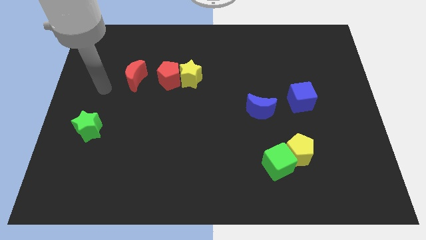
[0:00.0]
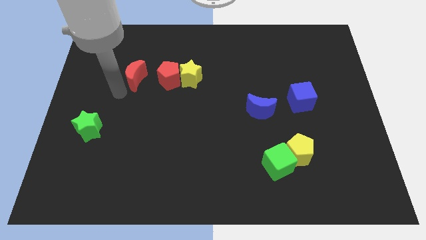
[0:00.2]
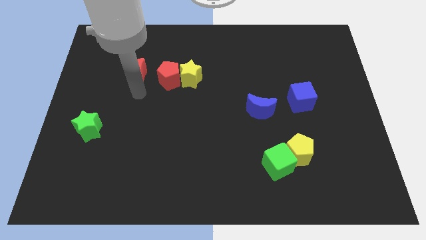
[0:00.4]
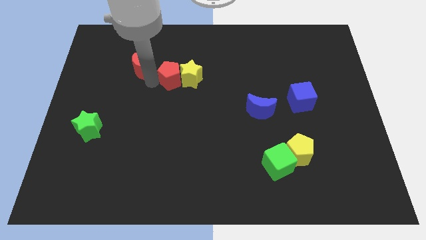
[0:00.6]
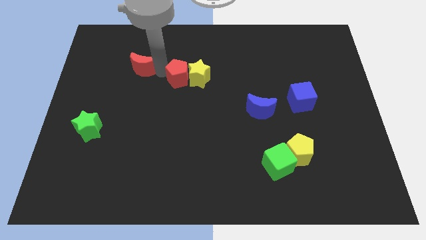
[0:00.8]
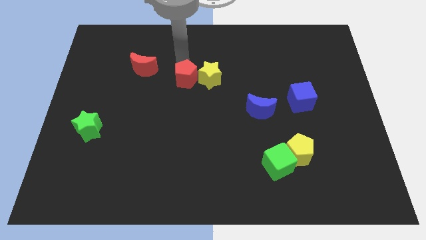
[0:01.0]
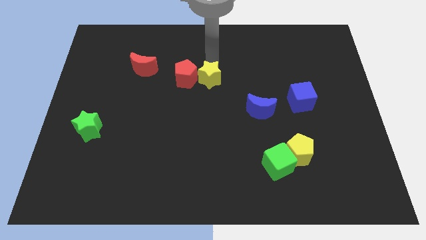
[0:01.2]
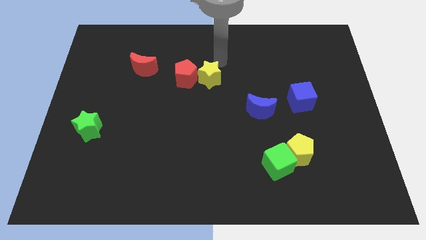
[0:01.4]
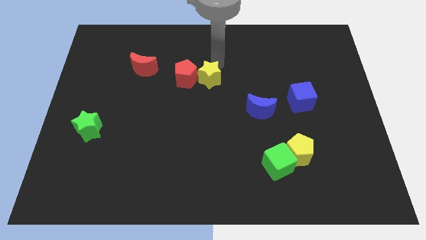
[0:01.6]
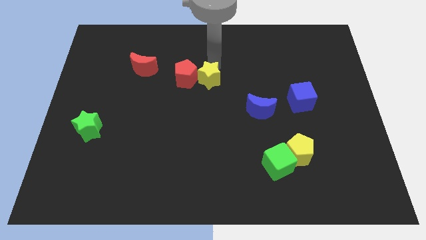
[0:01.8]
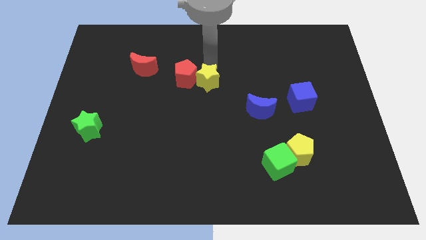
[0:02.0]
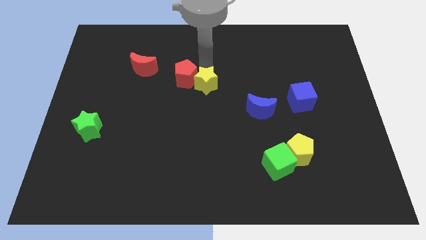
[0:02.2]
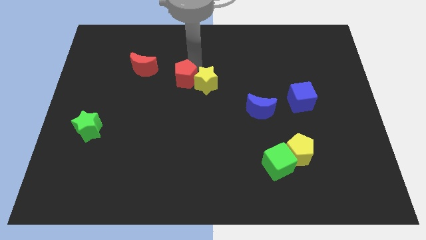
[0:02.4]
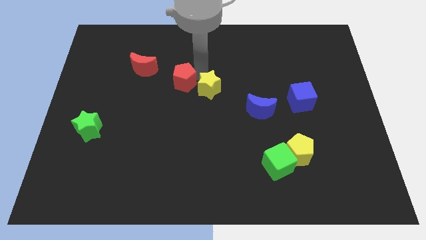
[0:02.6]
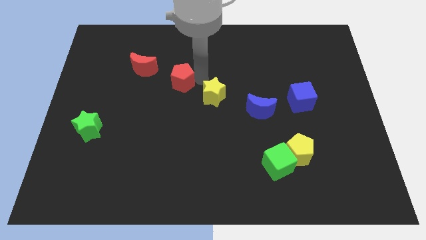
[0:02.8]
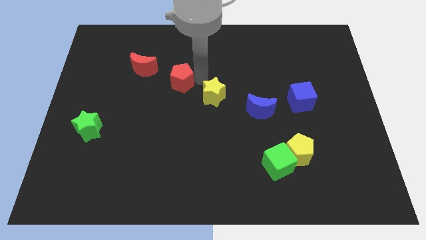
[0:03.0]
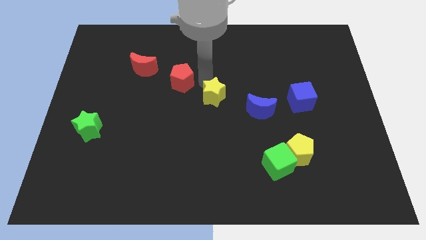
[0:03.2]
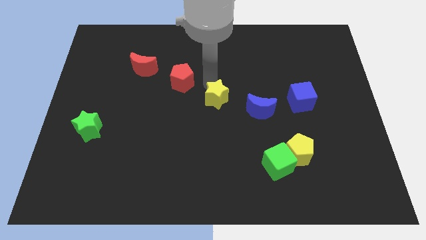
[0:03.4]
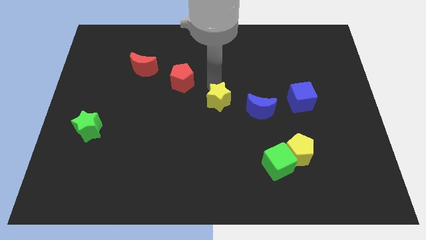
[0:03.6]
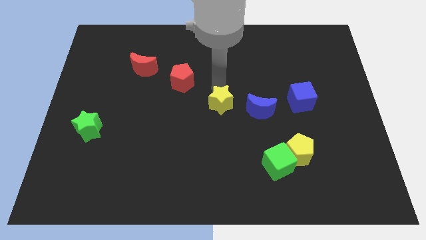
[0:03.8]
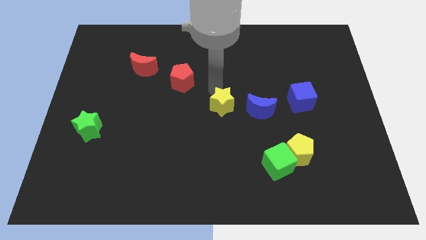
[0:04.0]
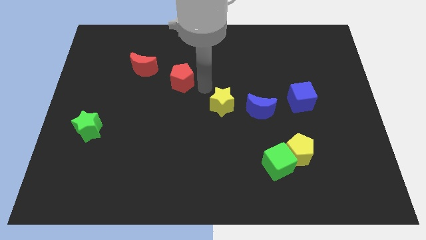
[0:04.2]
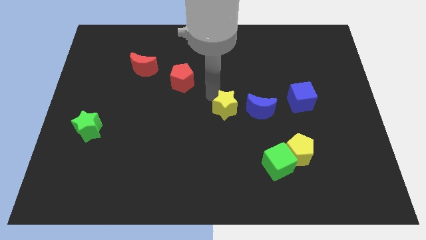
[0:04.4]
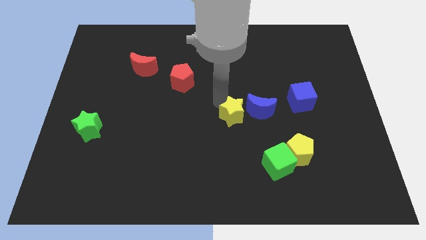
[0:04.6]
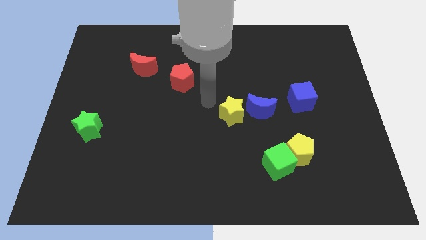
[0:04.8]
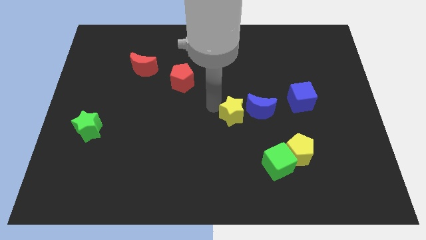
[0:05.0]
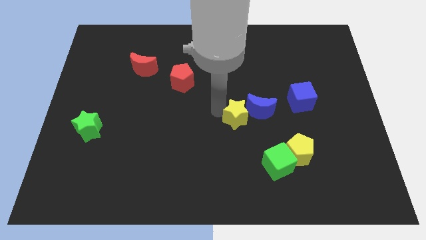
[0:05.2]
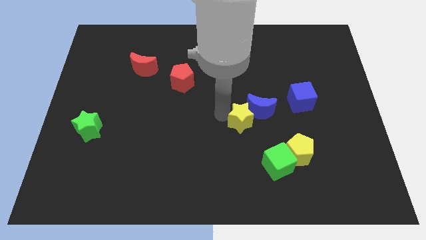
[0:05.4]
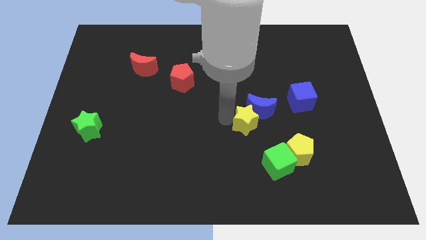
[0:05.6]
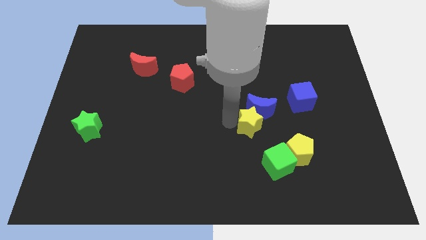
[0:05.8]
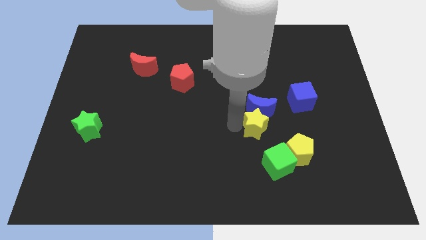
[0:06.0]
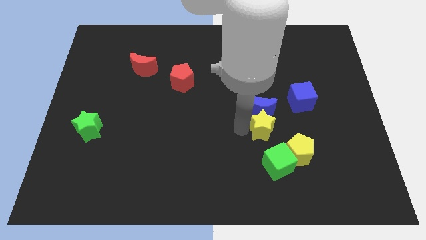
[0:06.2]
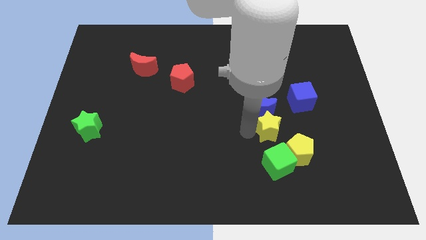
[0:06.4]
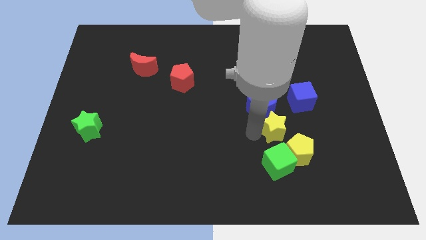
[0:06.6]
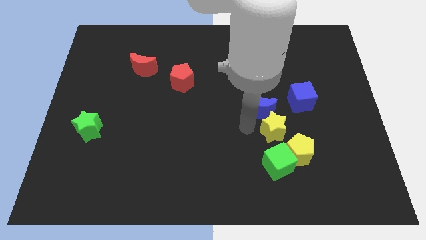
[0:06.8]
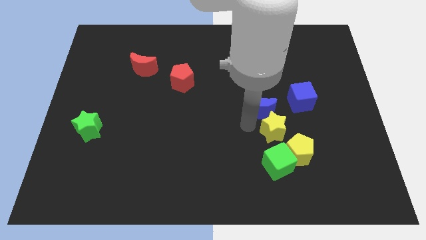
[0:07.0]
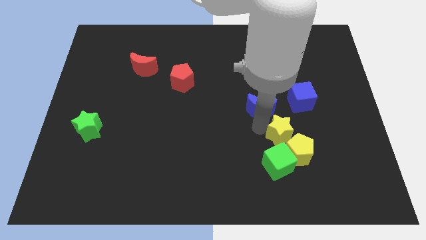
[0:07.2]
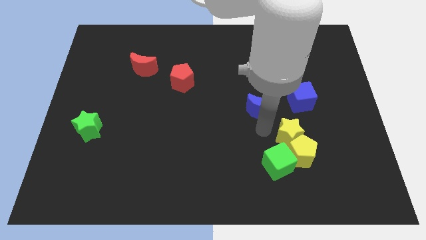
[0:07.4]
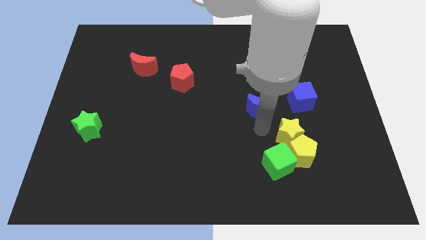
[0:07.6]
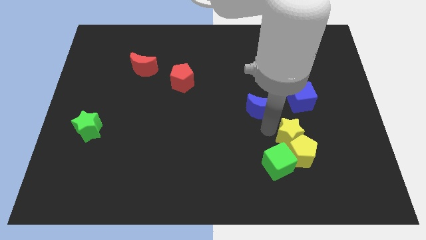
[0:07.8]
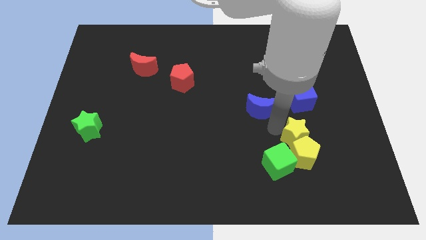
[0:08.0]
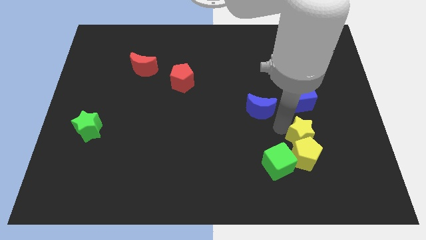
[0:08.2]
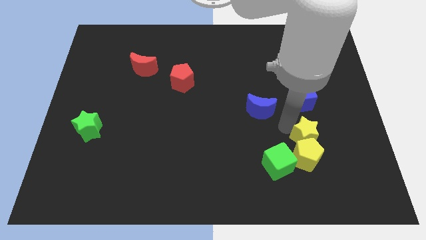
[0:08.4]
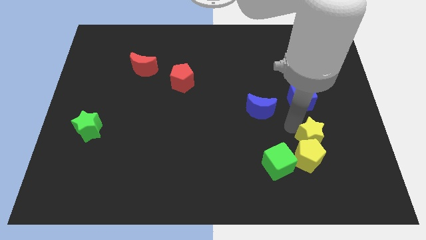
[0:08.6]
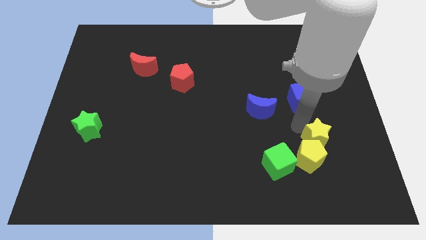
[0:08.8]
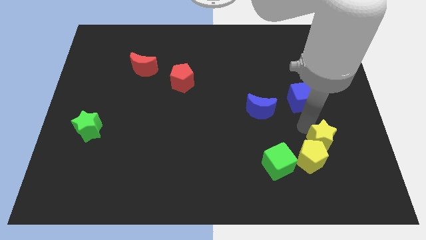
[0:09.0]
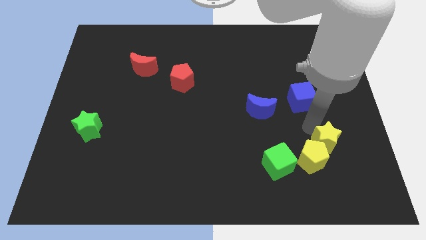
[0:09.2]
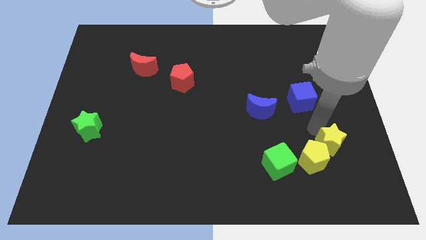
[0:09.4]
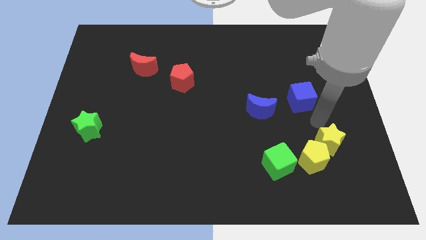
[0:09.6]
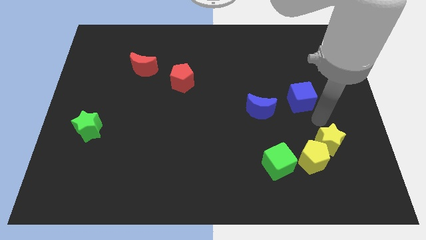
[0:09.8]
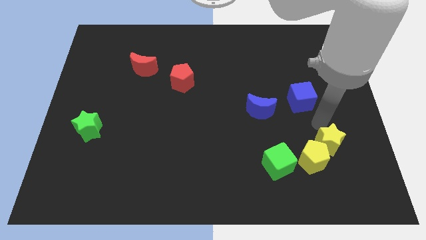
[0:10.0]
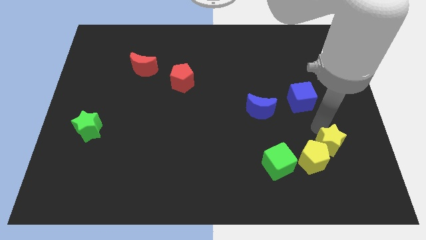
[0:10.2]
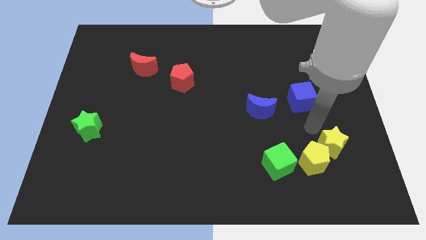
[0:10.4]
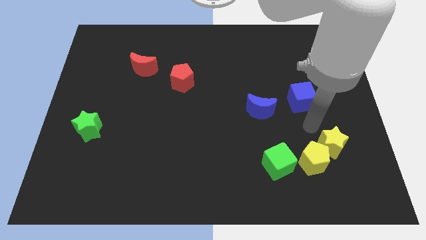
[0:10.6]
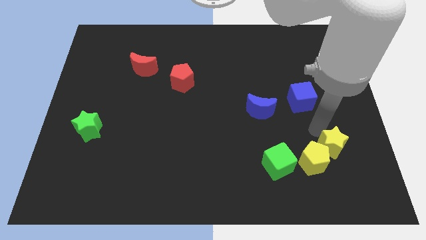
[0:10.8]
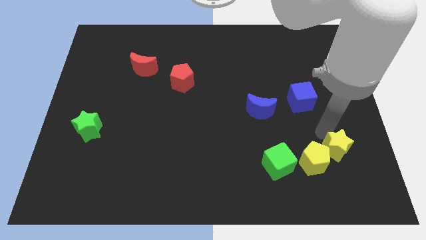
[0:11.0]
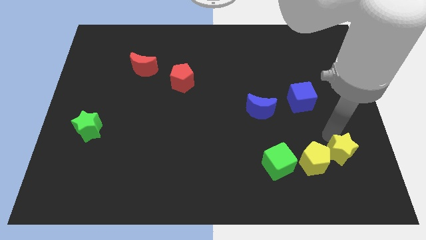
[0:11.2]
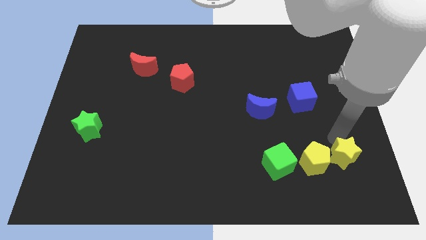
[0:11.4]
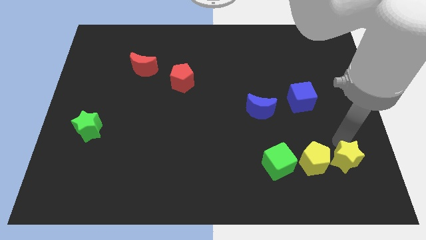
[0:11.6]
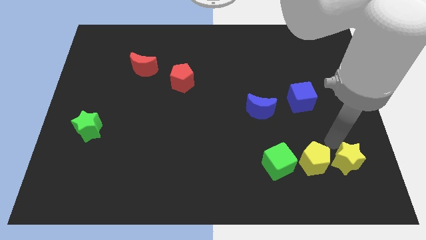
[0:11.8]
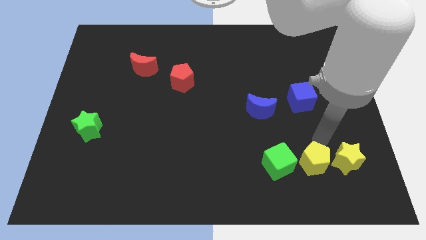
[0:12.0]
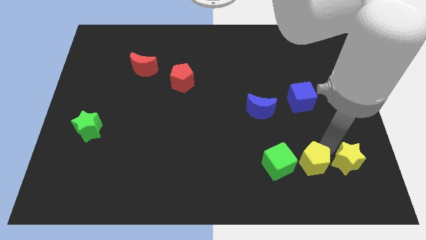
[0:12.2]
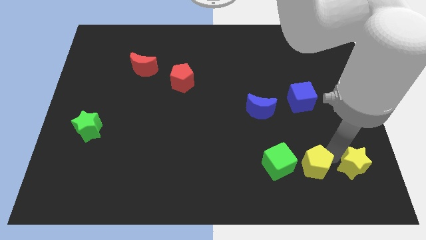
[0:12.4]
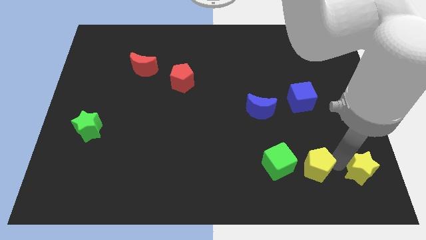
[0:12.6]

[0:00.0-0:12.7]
put the yellow star to the lower right corner
